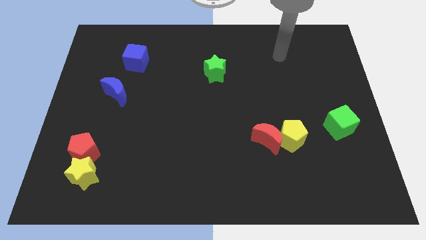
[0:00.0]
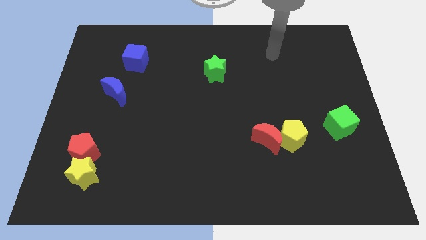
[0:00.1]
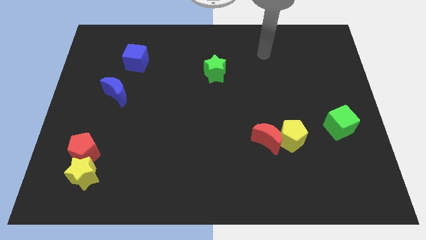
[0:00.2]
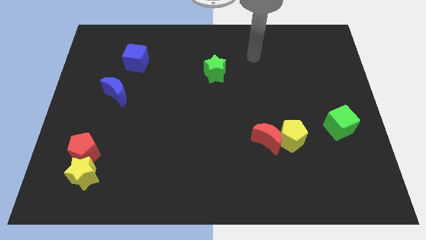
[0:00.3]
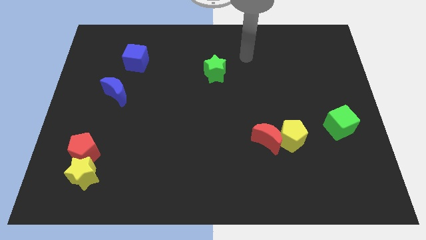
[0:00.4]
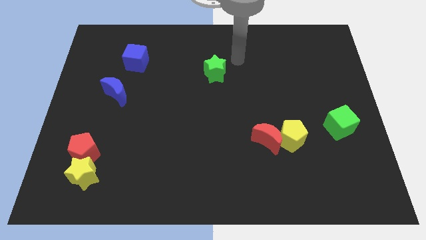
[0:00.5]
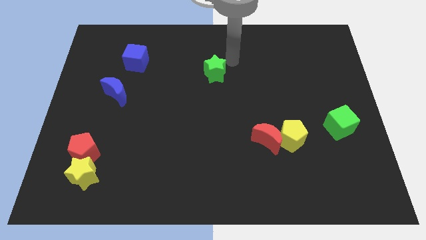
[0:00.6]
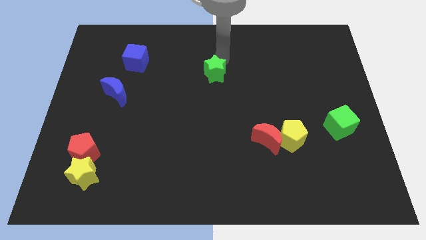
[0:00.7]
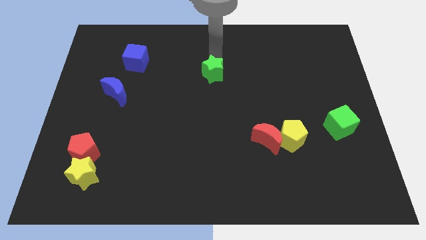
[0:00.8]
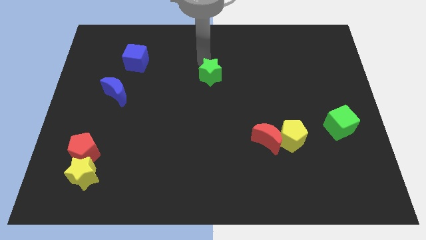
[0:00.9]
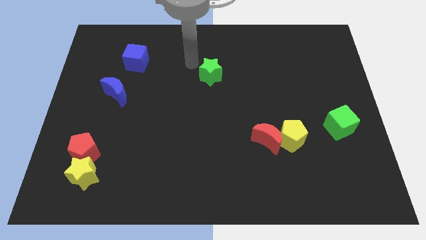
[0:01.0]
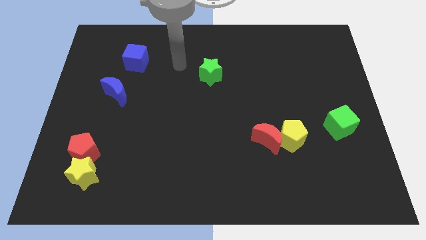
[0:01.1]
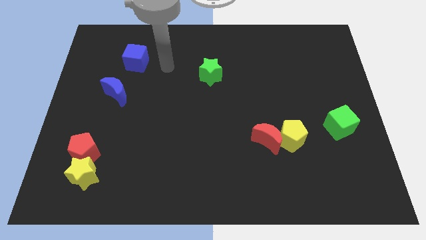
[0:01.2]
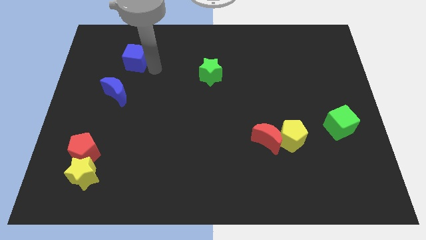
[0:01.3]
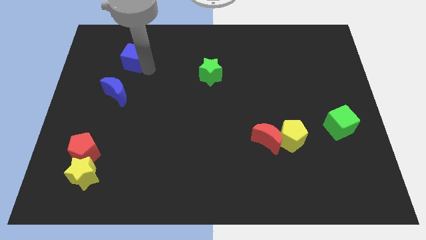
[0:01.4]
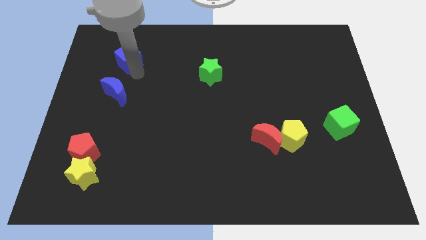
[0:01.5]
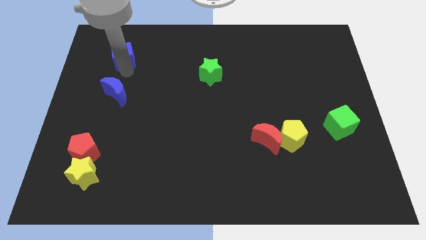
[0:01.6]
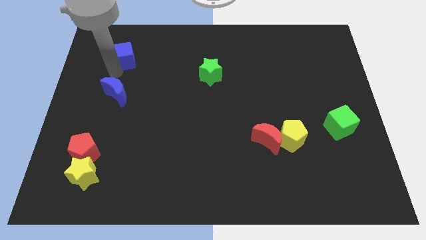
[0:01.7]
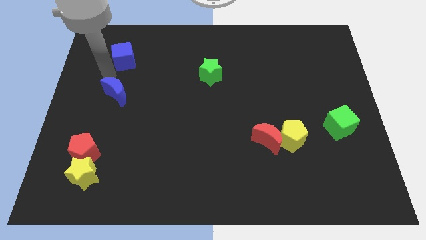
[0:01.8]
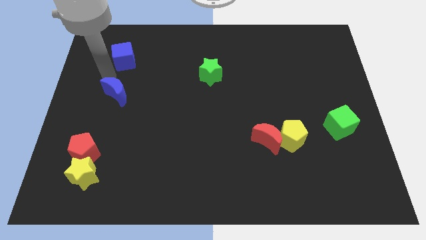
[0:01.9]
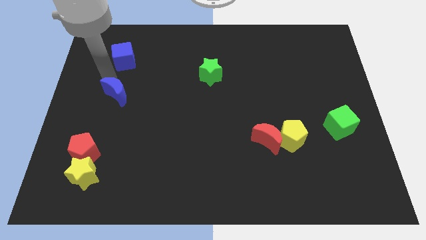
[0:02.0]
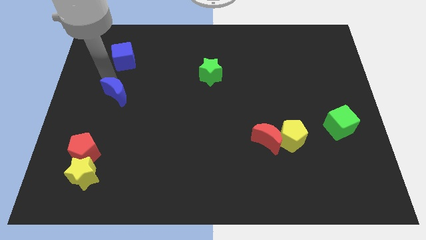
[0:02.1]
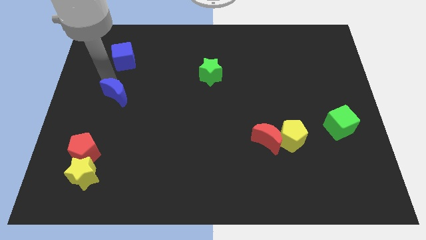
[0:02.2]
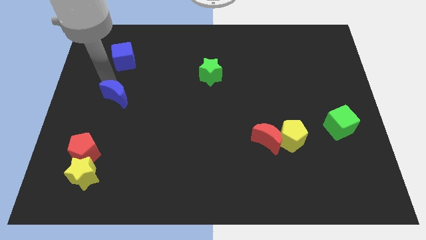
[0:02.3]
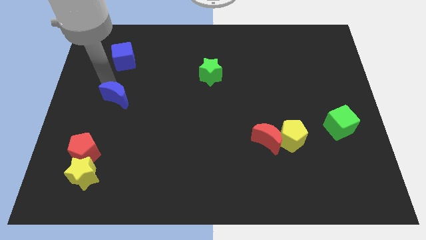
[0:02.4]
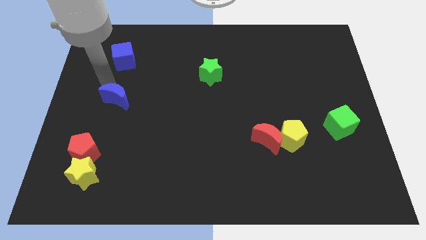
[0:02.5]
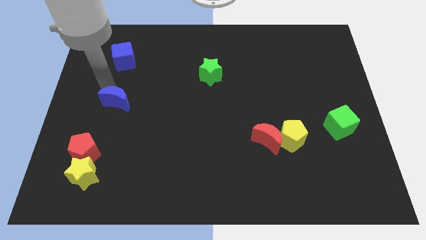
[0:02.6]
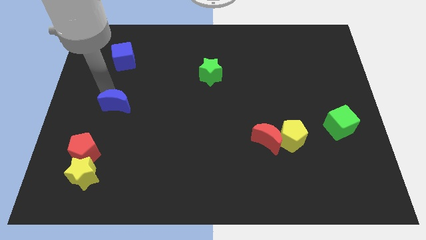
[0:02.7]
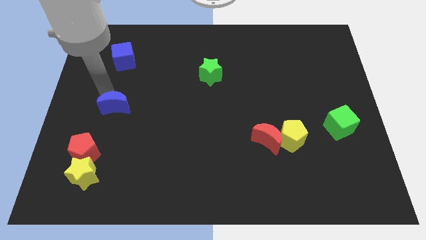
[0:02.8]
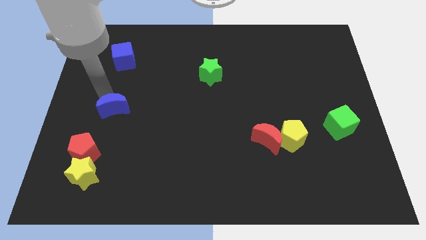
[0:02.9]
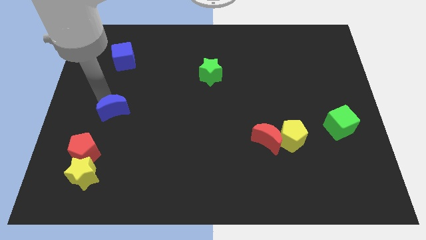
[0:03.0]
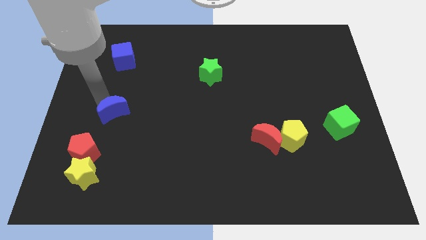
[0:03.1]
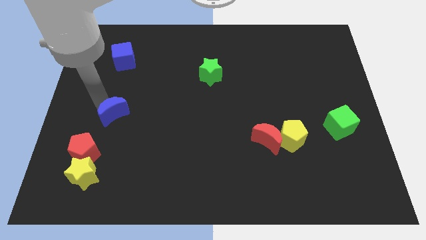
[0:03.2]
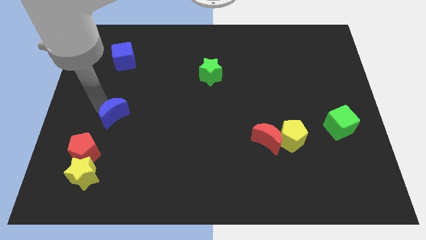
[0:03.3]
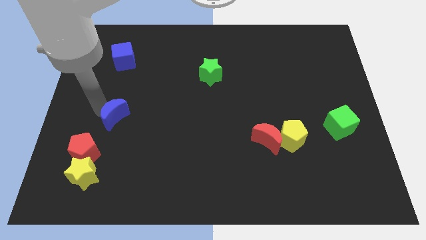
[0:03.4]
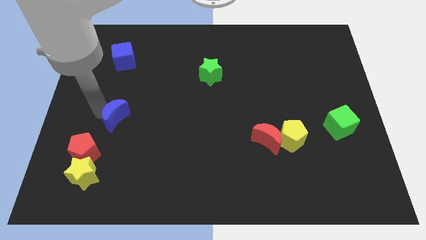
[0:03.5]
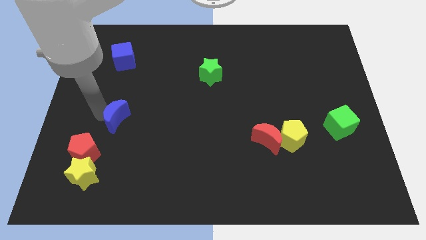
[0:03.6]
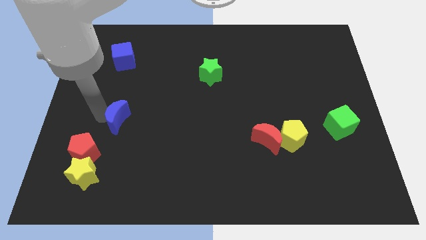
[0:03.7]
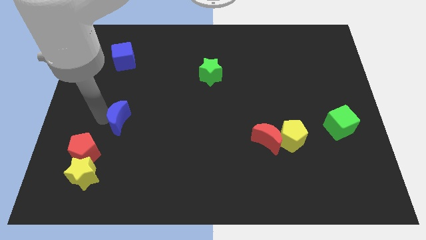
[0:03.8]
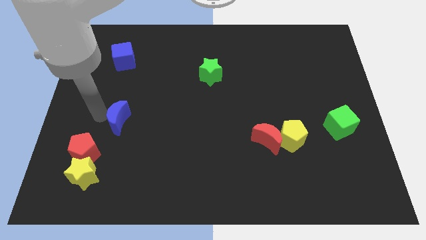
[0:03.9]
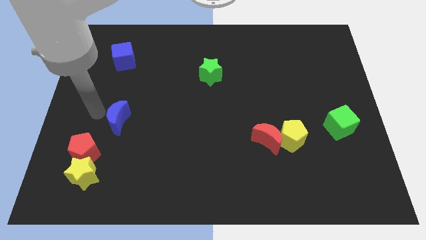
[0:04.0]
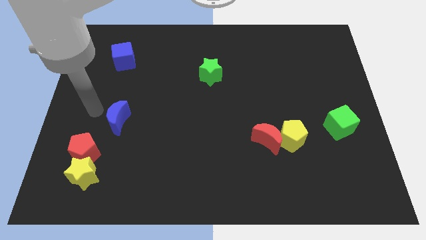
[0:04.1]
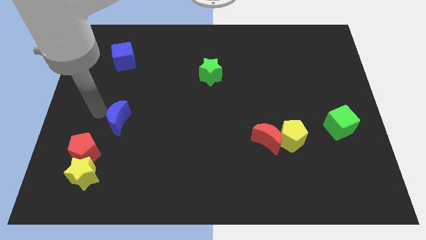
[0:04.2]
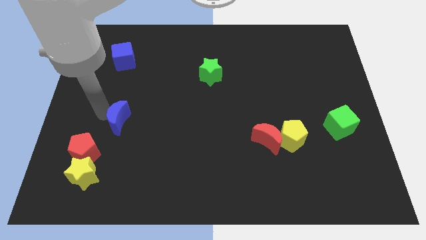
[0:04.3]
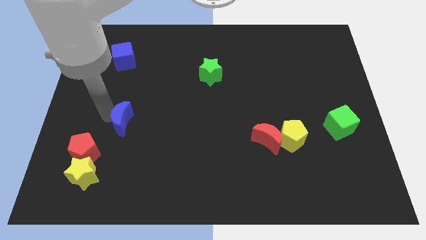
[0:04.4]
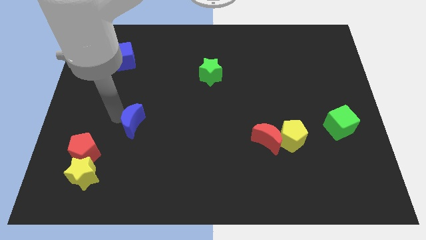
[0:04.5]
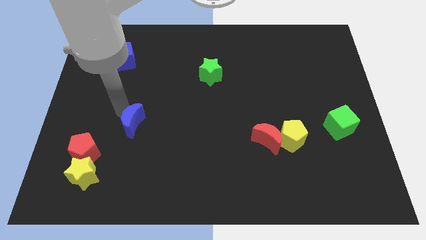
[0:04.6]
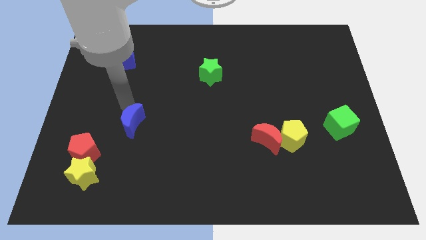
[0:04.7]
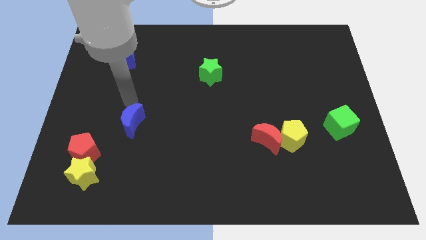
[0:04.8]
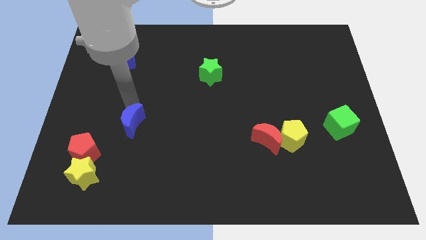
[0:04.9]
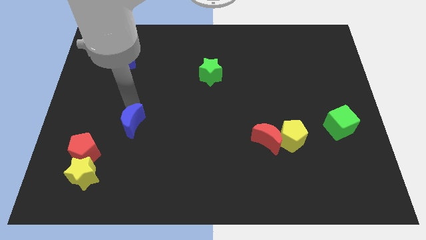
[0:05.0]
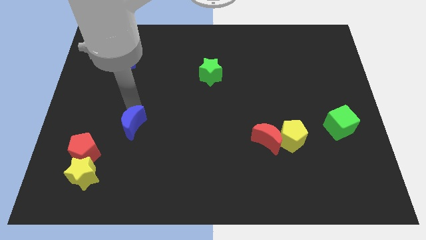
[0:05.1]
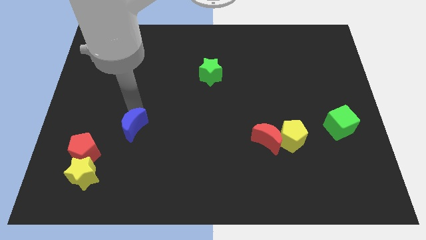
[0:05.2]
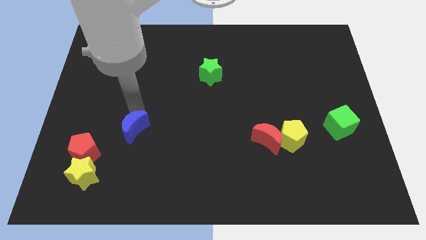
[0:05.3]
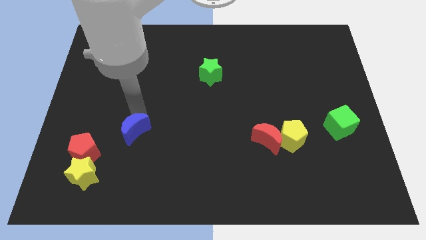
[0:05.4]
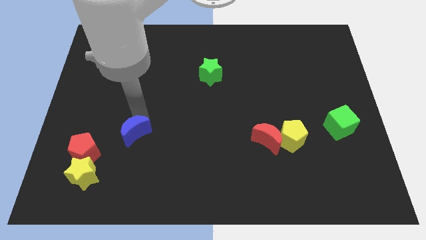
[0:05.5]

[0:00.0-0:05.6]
push the blue moon just right of the red pentagon

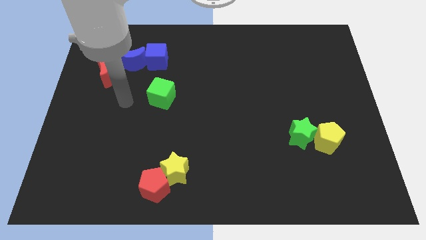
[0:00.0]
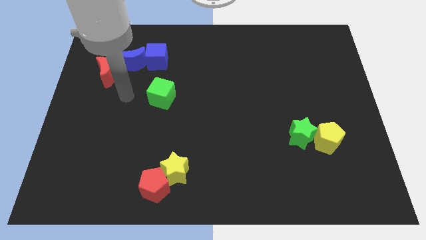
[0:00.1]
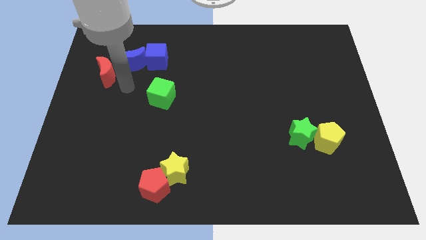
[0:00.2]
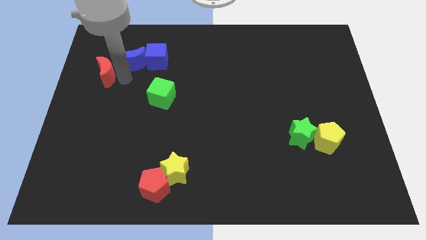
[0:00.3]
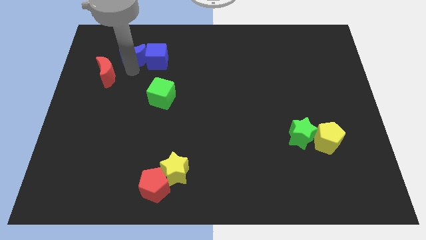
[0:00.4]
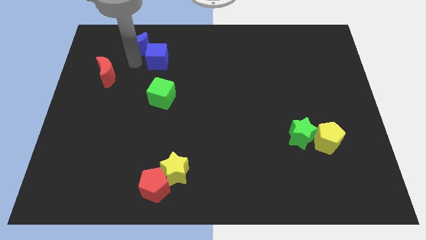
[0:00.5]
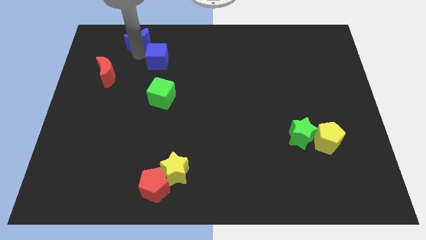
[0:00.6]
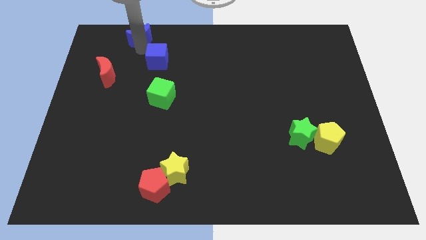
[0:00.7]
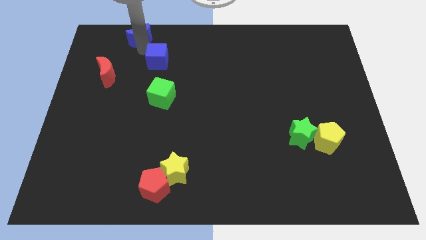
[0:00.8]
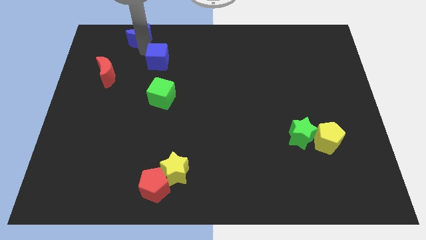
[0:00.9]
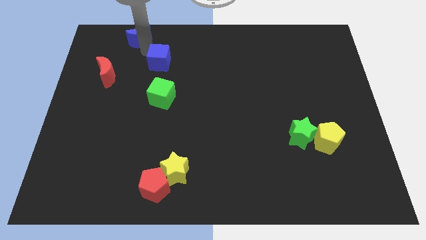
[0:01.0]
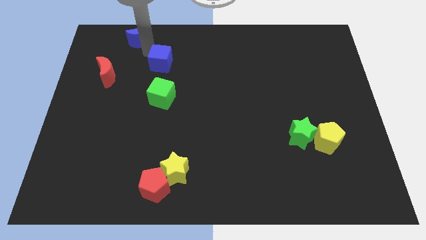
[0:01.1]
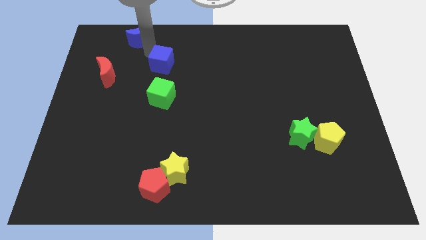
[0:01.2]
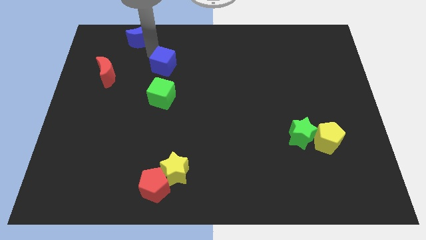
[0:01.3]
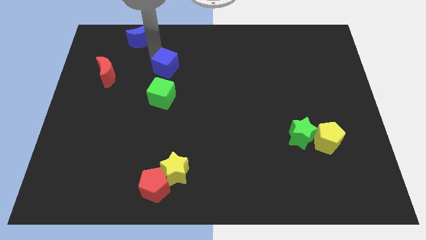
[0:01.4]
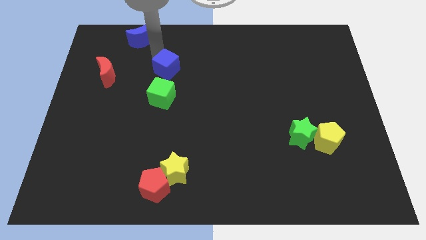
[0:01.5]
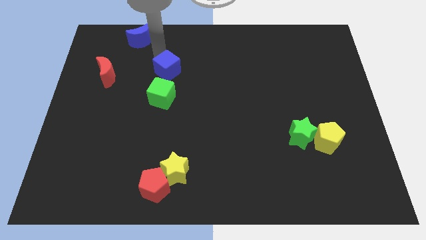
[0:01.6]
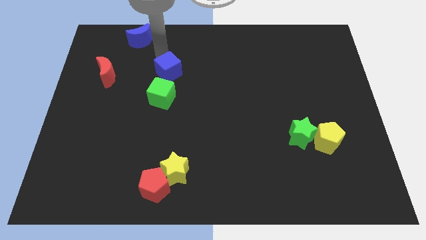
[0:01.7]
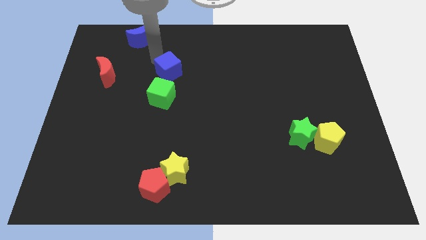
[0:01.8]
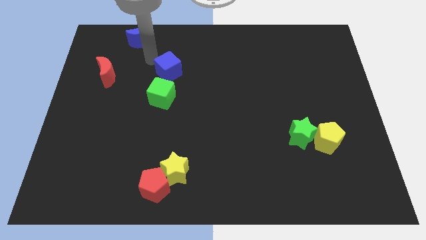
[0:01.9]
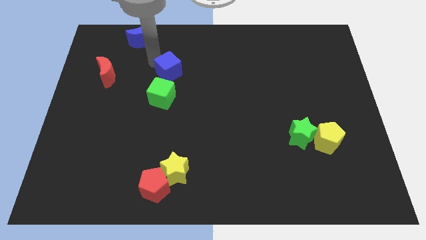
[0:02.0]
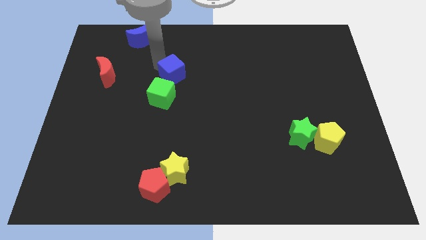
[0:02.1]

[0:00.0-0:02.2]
move the blue cube to the top right of the green cube
